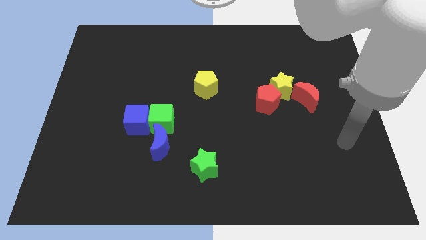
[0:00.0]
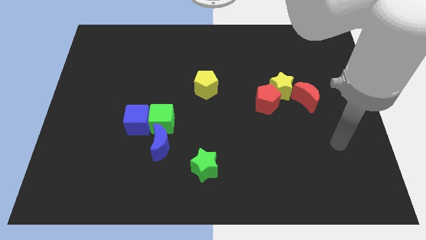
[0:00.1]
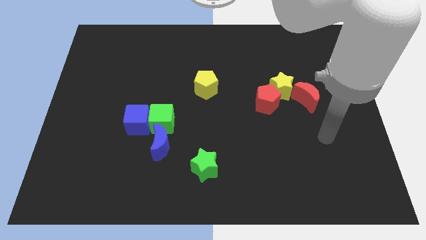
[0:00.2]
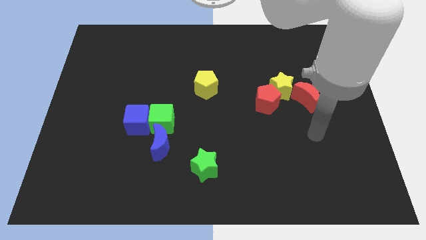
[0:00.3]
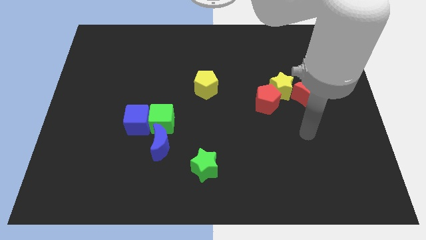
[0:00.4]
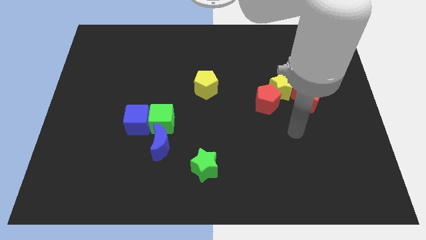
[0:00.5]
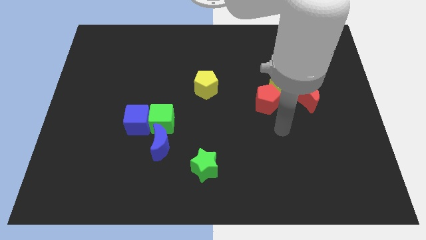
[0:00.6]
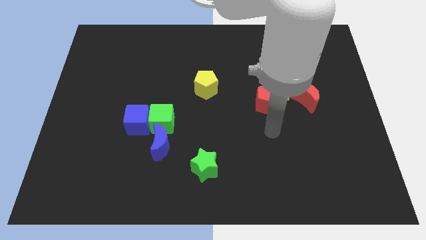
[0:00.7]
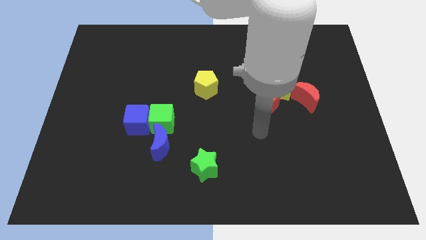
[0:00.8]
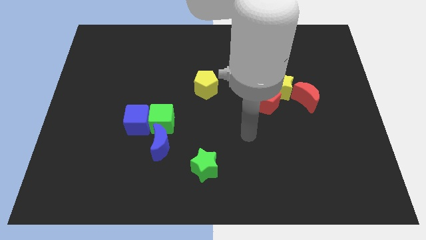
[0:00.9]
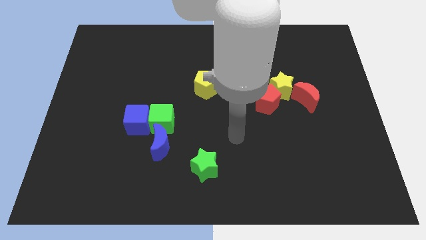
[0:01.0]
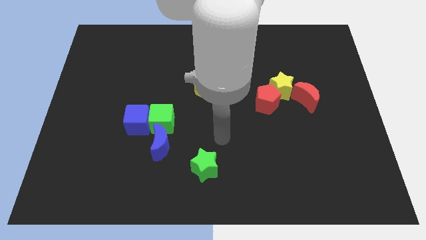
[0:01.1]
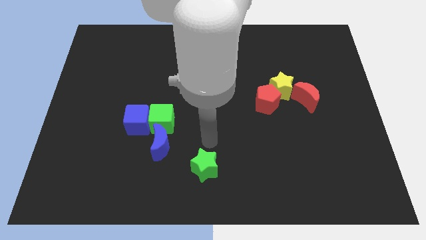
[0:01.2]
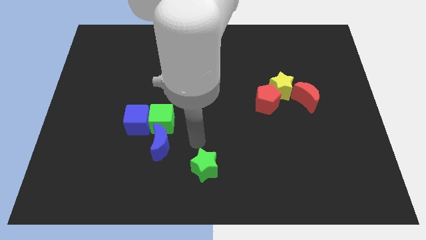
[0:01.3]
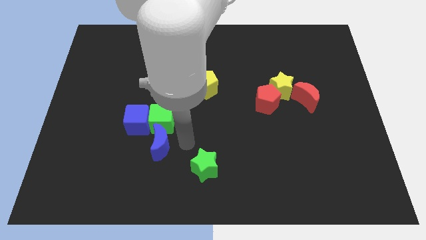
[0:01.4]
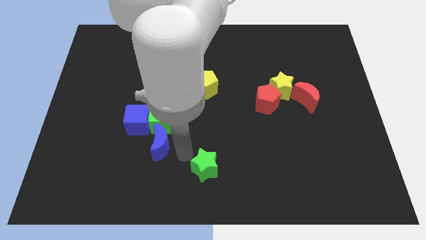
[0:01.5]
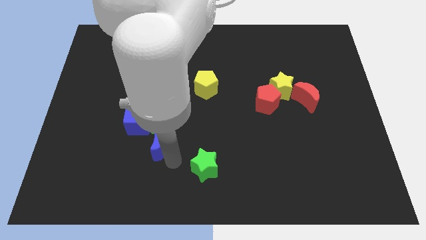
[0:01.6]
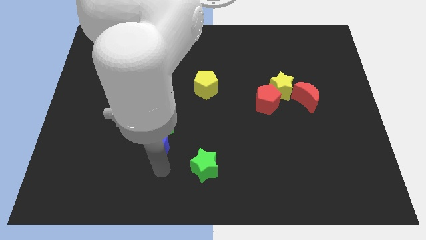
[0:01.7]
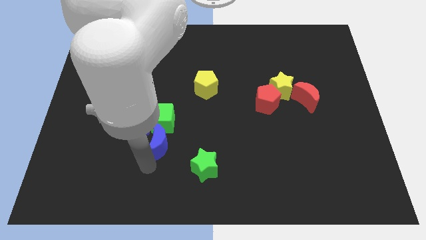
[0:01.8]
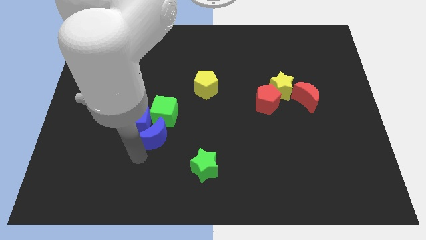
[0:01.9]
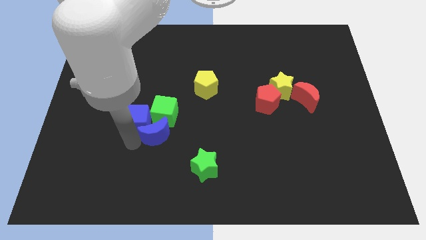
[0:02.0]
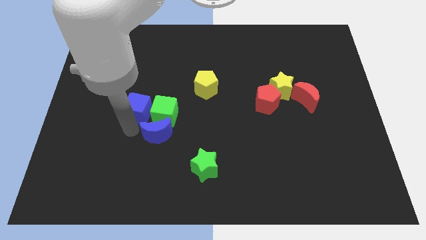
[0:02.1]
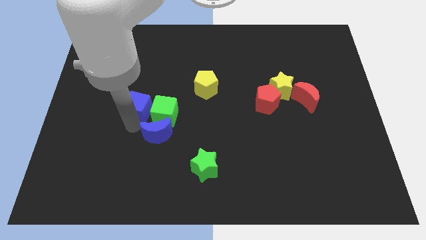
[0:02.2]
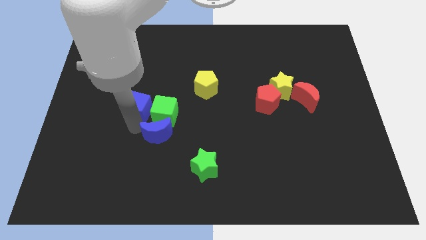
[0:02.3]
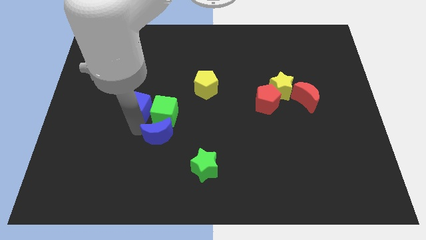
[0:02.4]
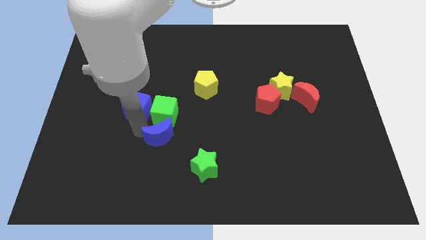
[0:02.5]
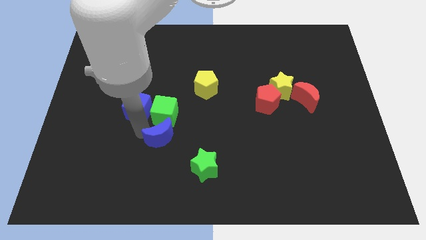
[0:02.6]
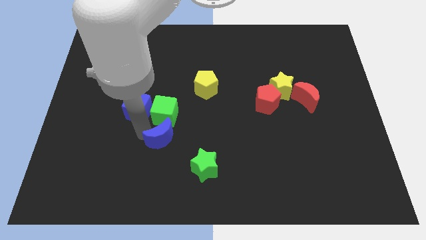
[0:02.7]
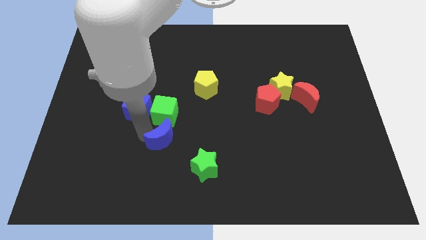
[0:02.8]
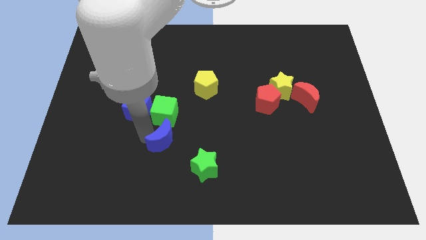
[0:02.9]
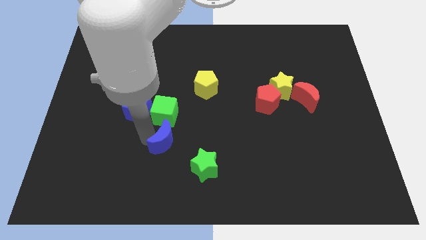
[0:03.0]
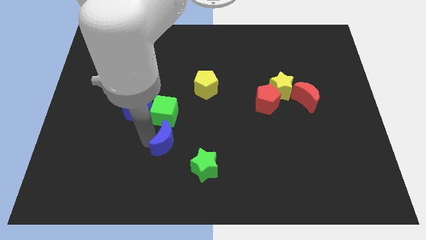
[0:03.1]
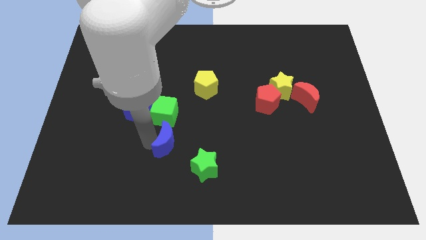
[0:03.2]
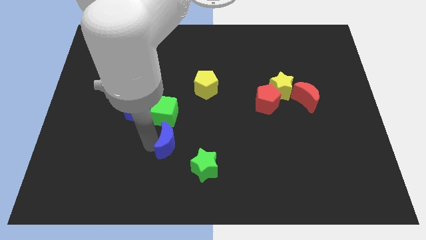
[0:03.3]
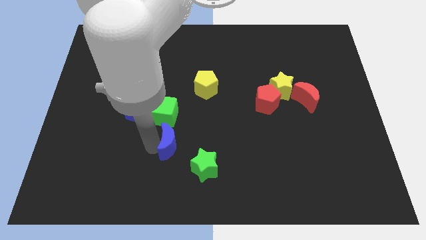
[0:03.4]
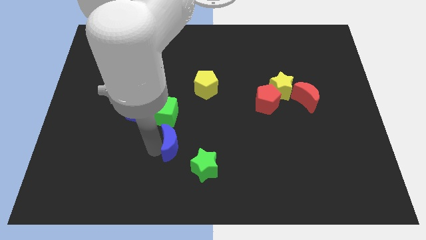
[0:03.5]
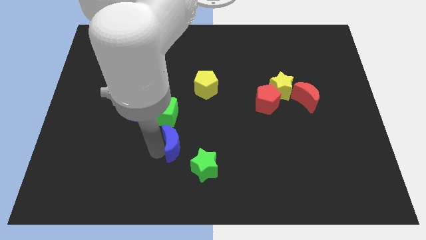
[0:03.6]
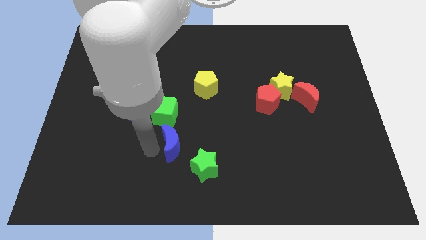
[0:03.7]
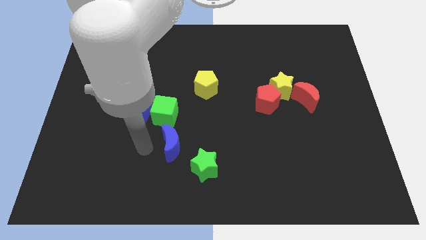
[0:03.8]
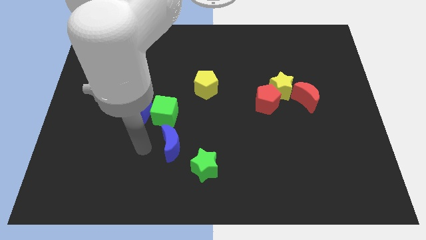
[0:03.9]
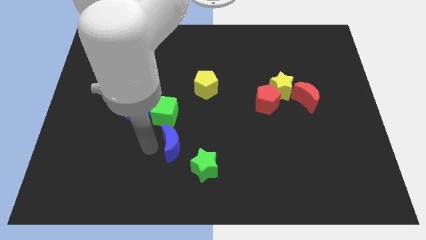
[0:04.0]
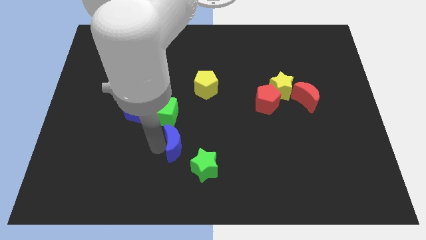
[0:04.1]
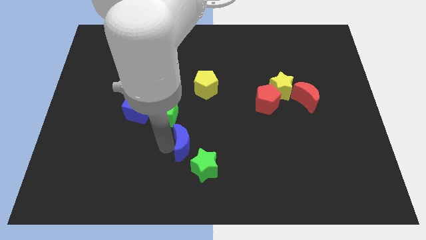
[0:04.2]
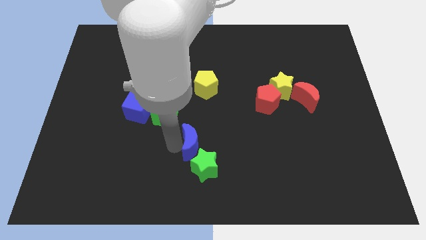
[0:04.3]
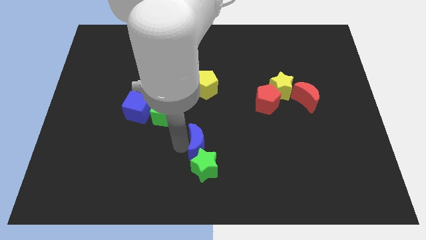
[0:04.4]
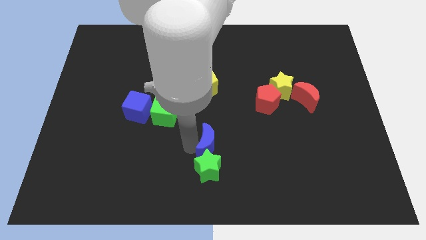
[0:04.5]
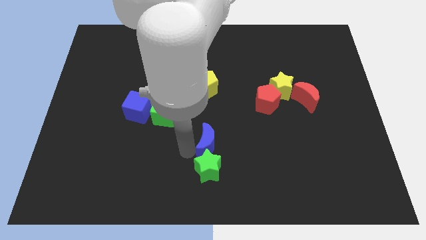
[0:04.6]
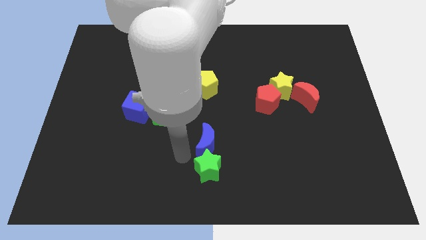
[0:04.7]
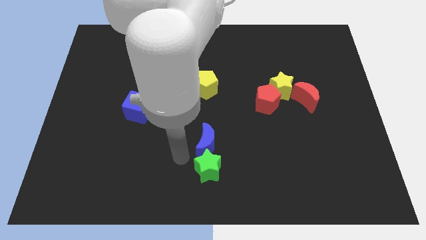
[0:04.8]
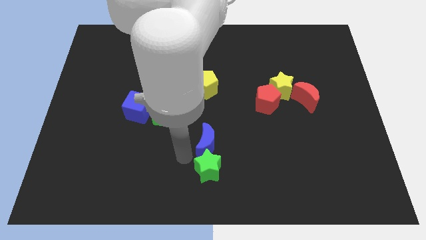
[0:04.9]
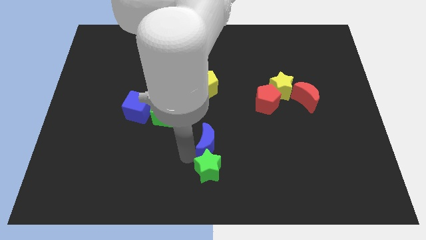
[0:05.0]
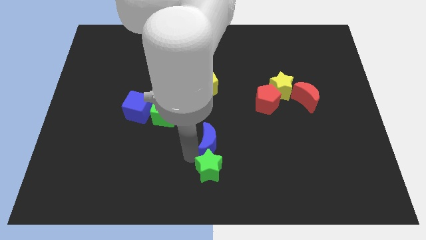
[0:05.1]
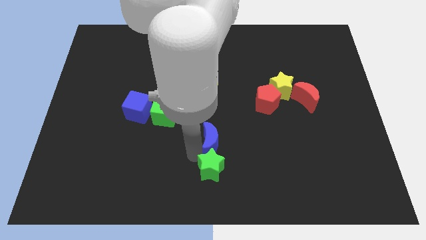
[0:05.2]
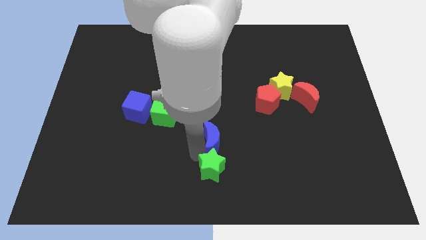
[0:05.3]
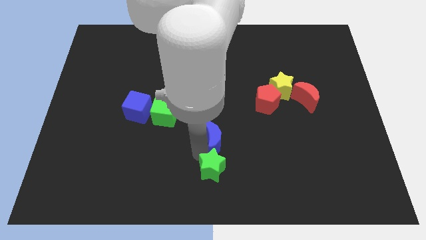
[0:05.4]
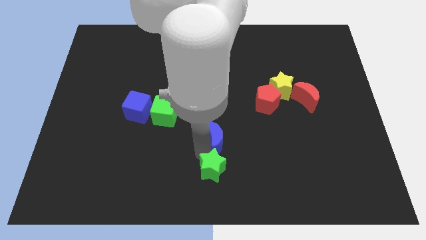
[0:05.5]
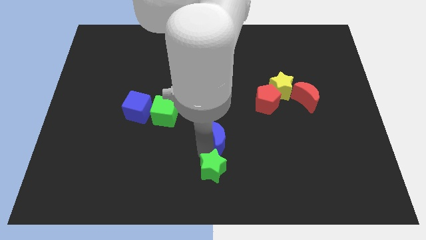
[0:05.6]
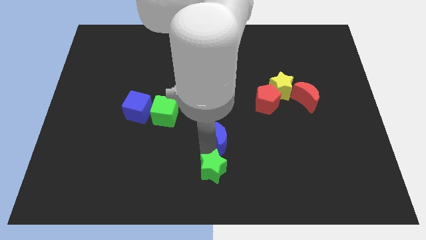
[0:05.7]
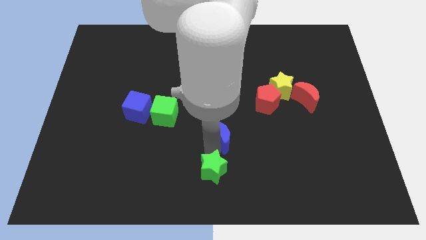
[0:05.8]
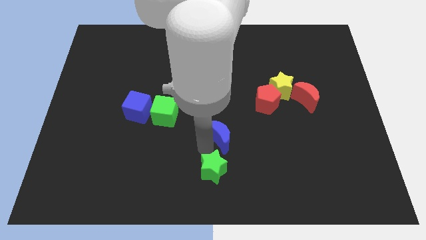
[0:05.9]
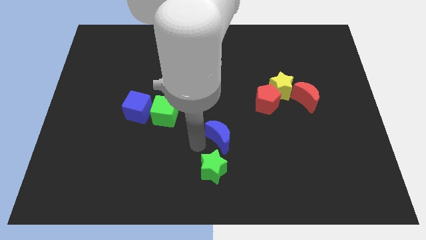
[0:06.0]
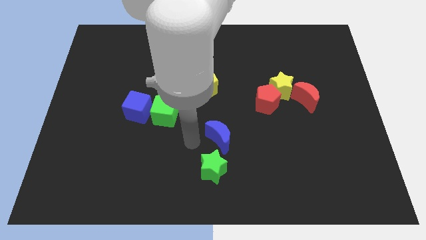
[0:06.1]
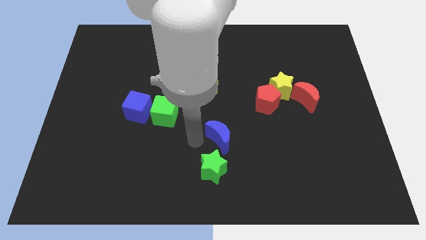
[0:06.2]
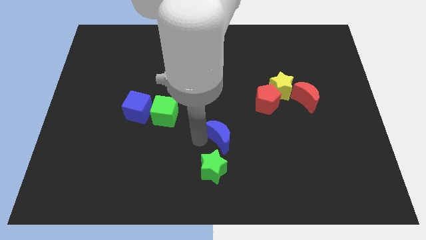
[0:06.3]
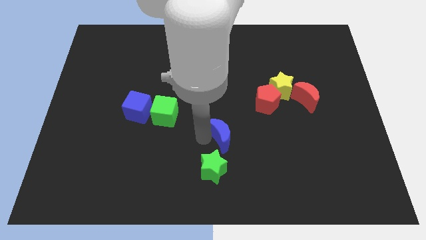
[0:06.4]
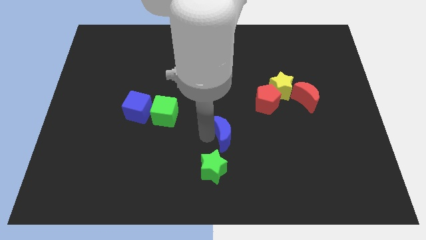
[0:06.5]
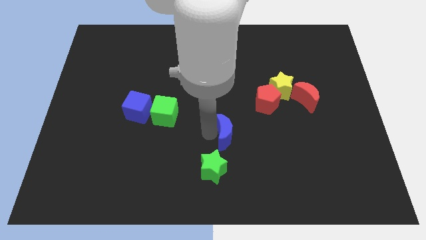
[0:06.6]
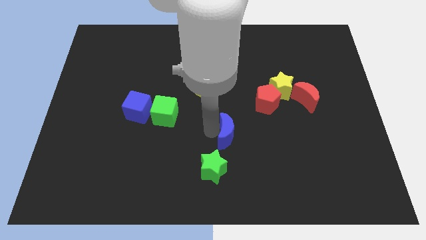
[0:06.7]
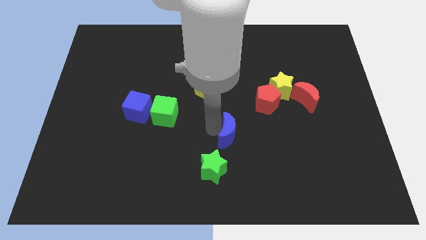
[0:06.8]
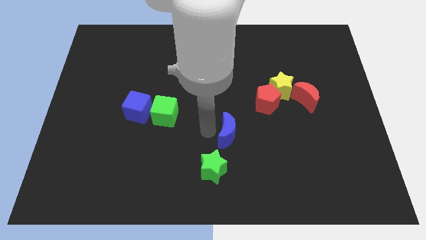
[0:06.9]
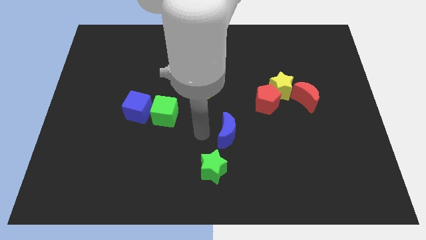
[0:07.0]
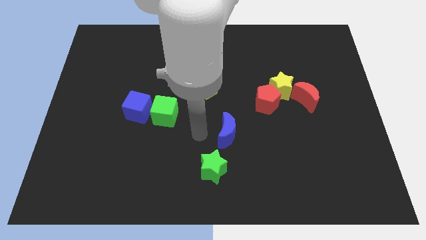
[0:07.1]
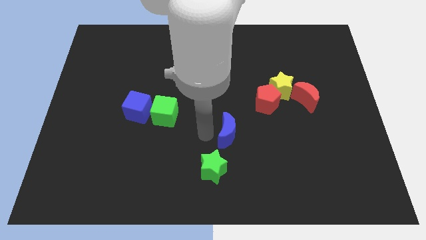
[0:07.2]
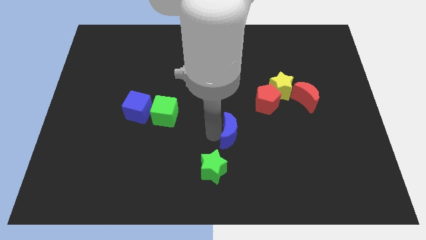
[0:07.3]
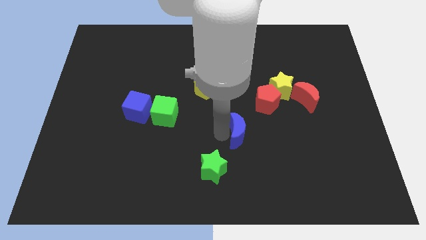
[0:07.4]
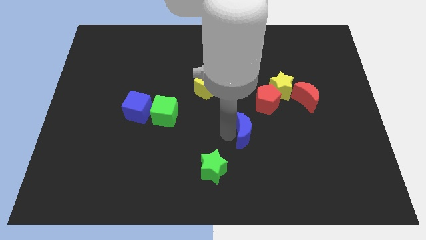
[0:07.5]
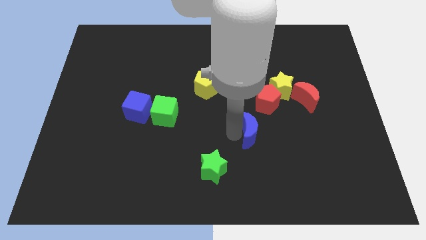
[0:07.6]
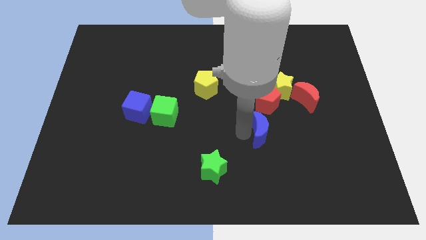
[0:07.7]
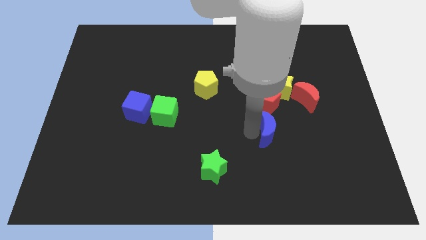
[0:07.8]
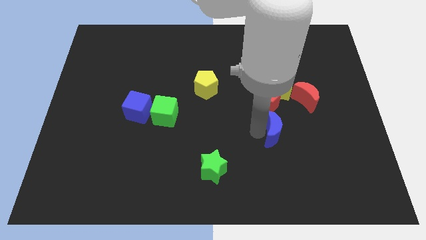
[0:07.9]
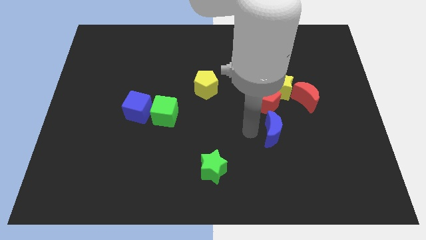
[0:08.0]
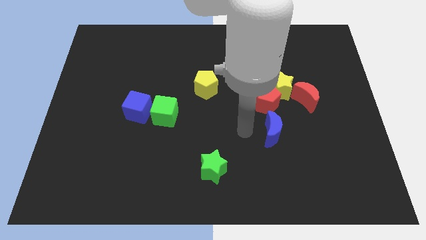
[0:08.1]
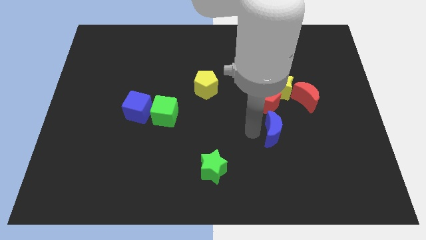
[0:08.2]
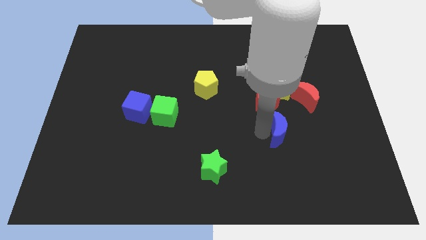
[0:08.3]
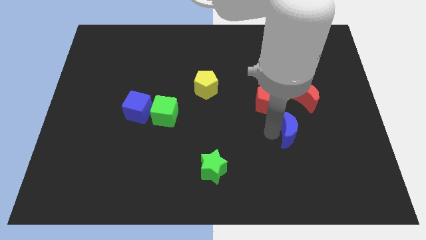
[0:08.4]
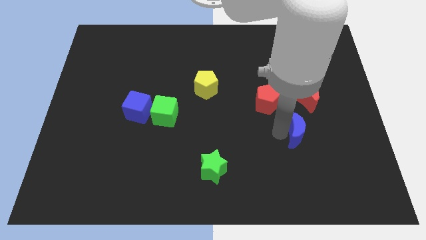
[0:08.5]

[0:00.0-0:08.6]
push the blue moon to the bottom of the red moon
